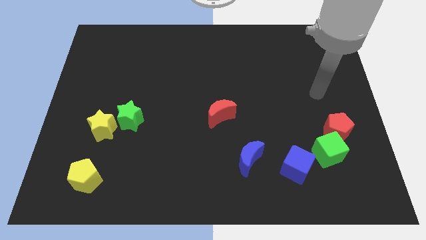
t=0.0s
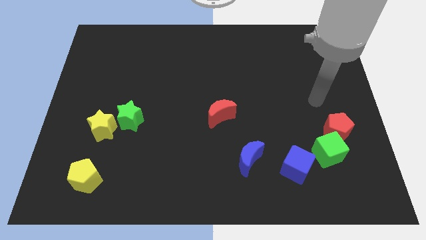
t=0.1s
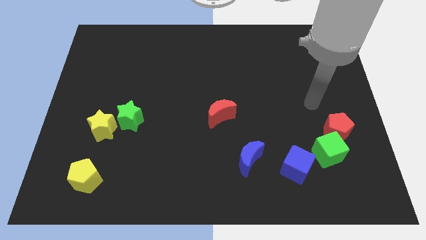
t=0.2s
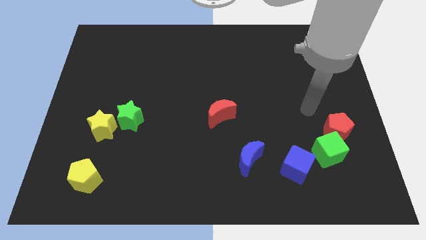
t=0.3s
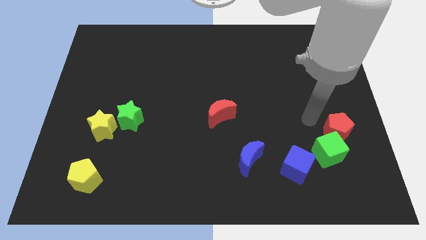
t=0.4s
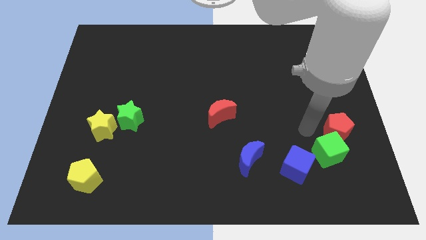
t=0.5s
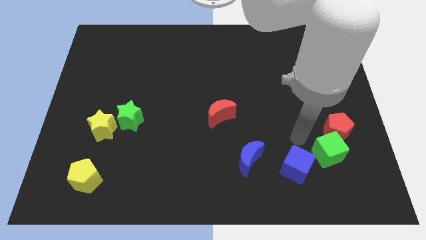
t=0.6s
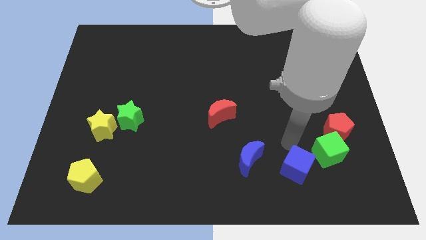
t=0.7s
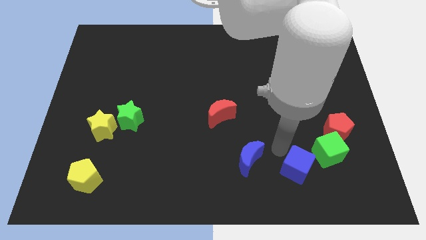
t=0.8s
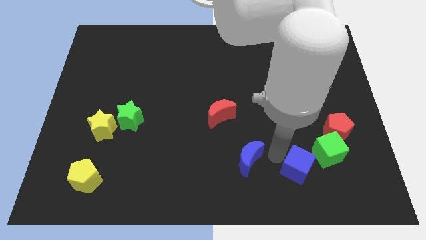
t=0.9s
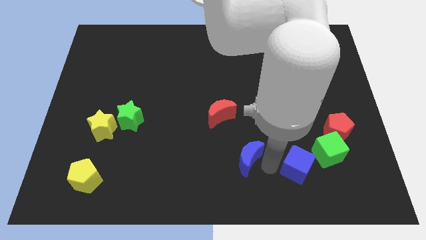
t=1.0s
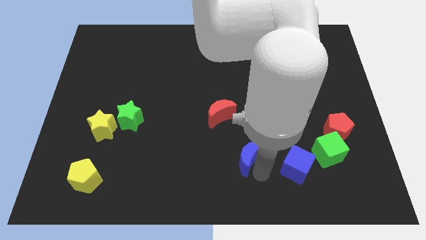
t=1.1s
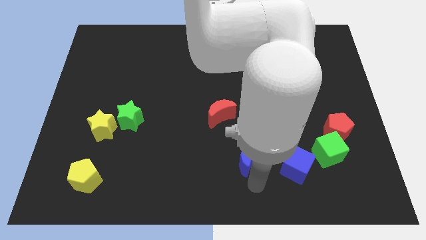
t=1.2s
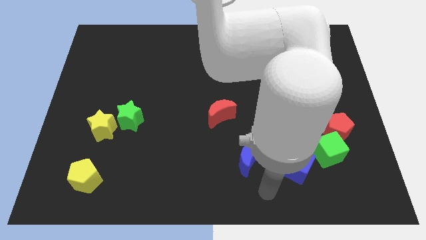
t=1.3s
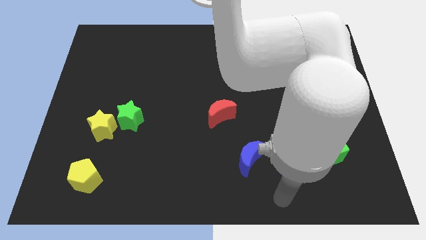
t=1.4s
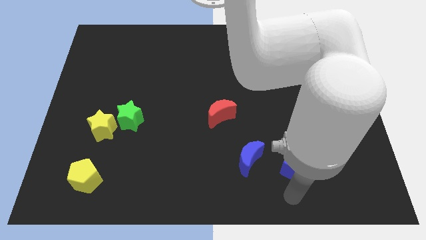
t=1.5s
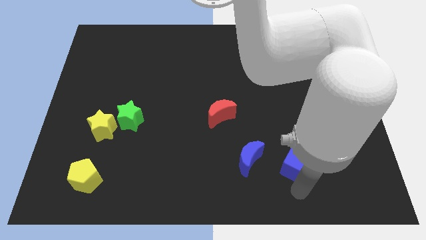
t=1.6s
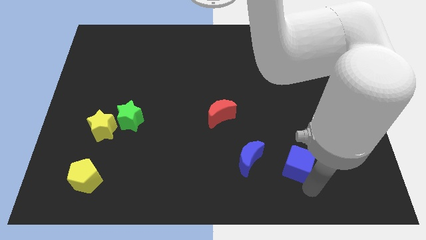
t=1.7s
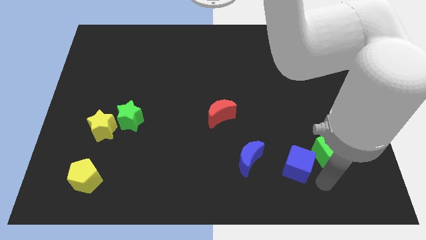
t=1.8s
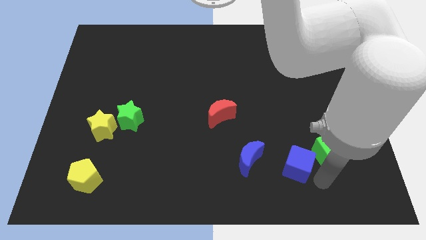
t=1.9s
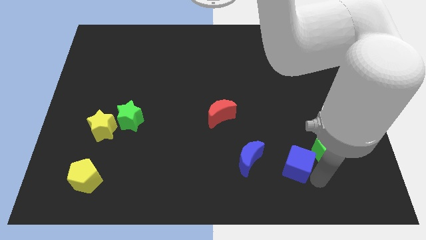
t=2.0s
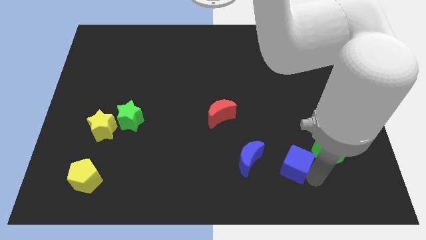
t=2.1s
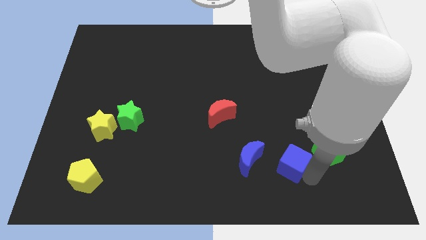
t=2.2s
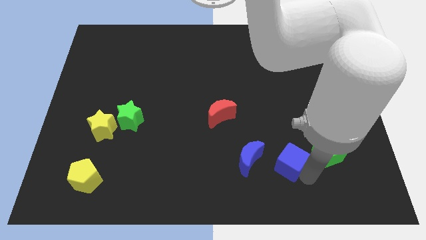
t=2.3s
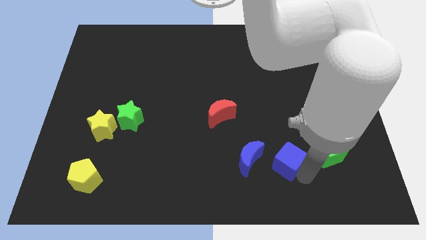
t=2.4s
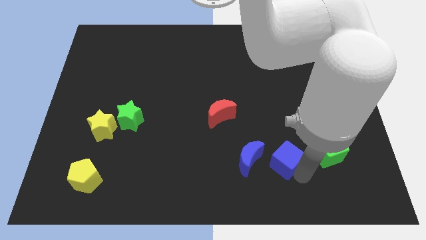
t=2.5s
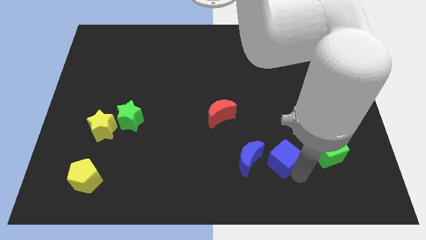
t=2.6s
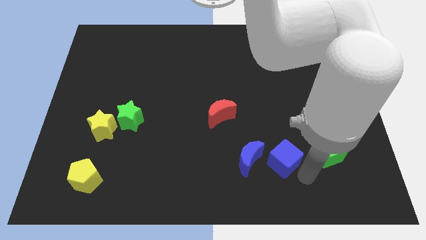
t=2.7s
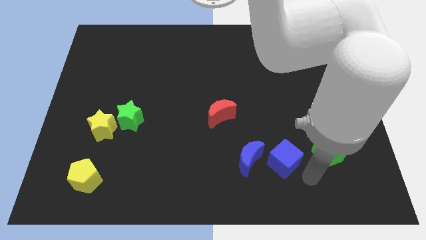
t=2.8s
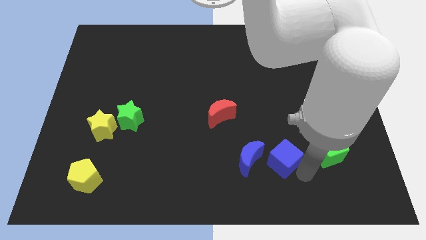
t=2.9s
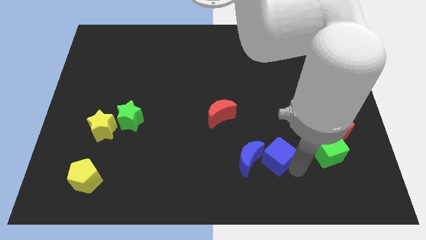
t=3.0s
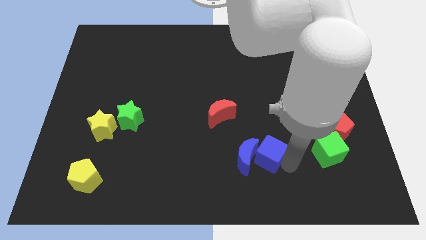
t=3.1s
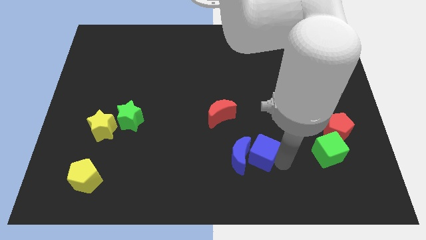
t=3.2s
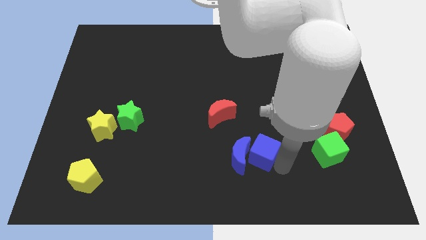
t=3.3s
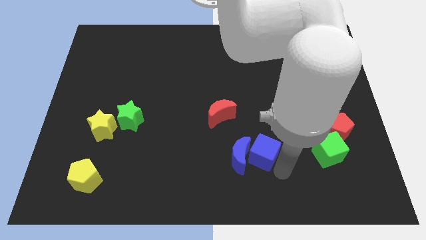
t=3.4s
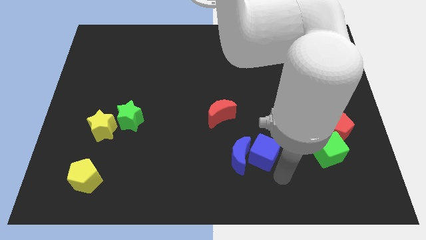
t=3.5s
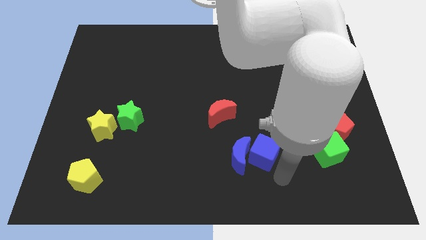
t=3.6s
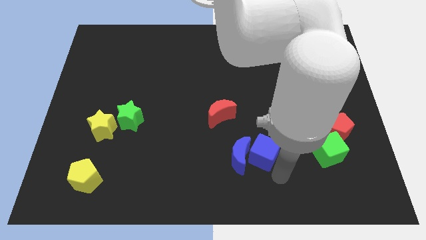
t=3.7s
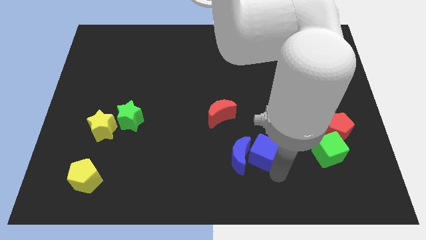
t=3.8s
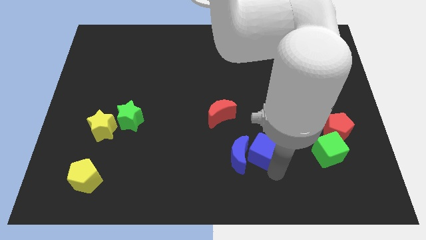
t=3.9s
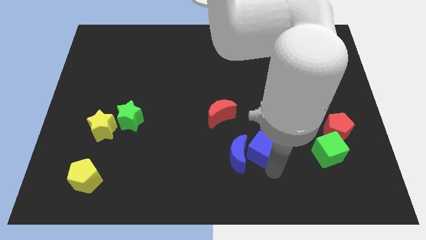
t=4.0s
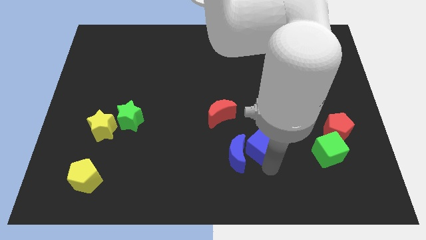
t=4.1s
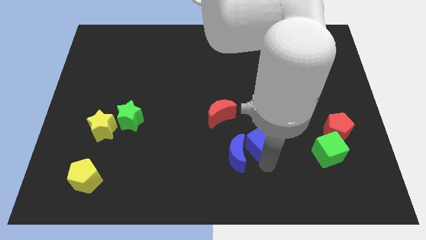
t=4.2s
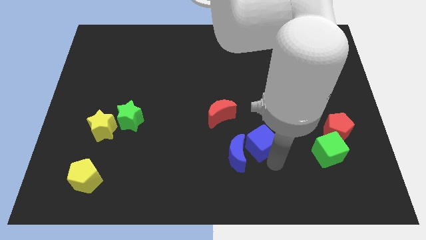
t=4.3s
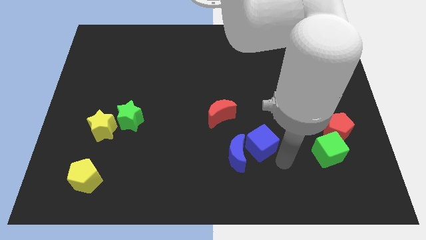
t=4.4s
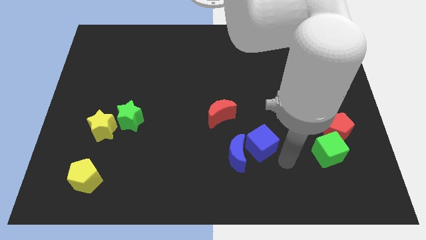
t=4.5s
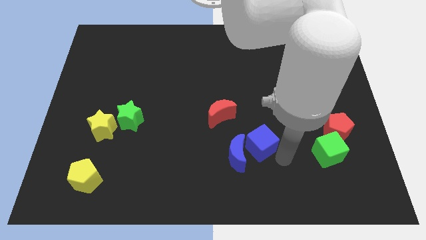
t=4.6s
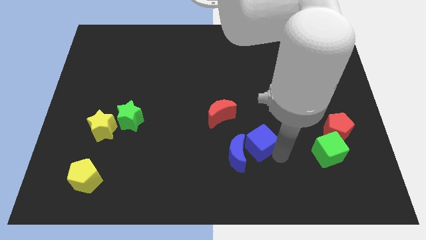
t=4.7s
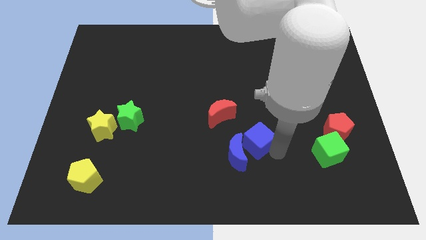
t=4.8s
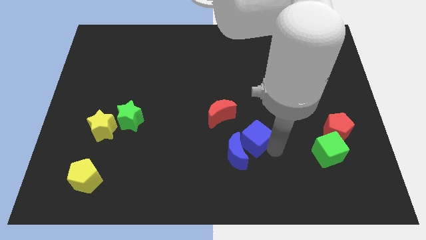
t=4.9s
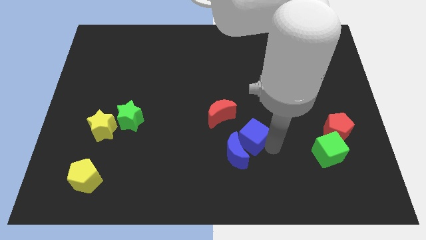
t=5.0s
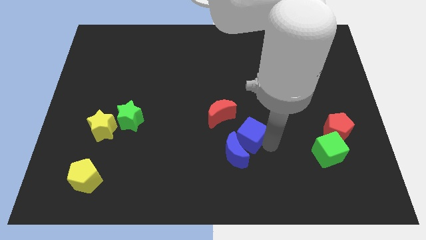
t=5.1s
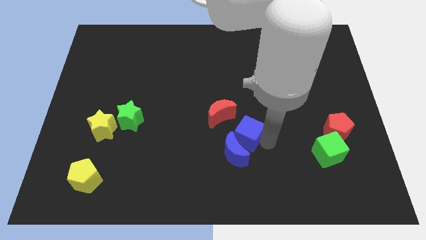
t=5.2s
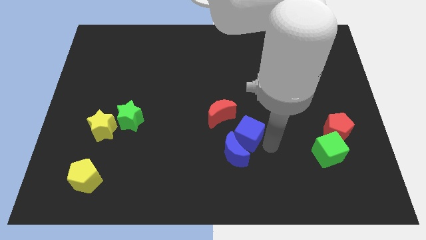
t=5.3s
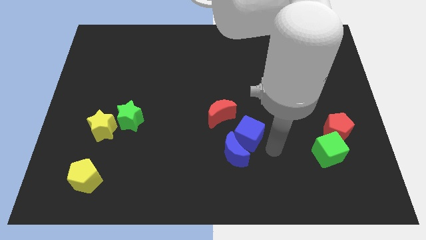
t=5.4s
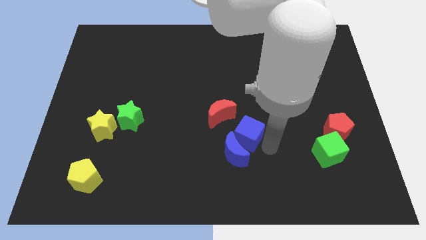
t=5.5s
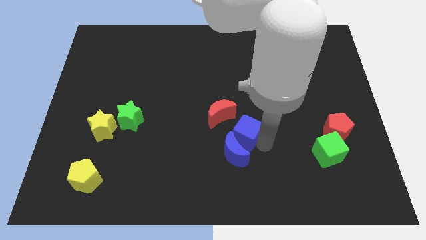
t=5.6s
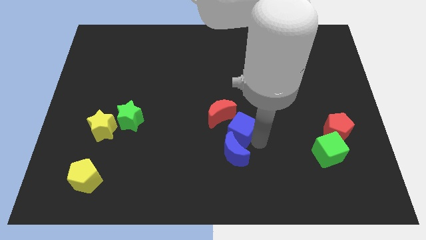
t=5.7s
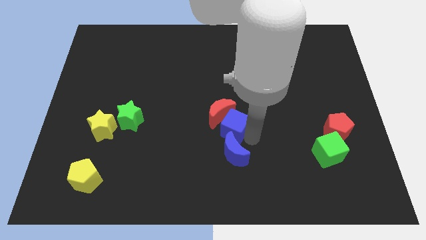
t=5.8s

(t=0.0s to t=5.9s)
put the blue cube to the red moon

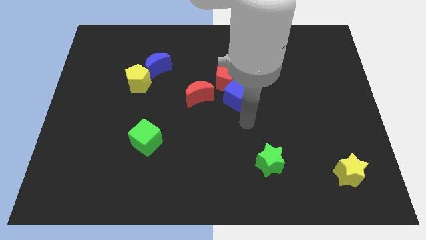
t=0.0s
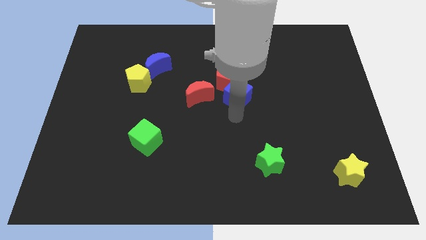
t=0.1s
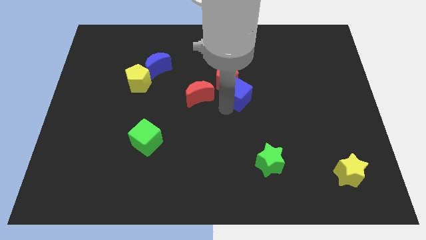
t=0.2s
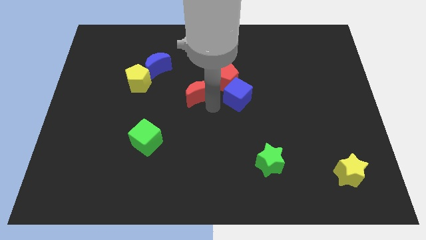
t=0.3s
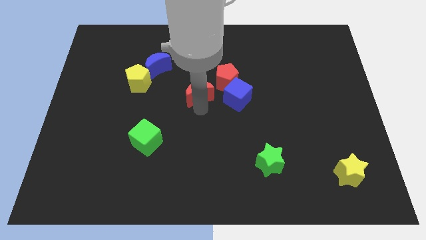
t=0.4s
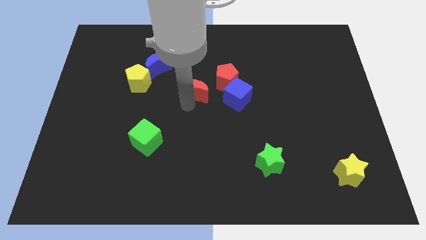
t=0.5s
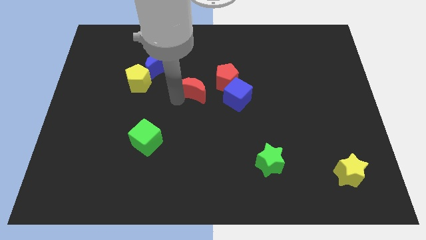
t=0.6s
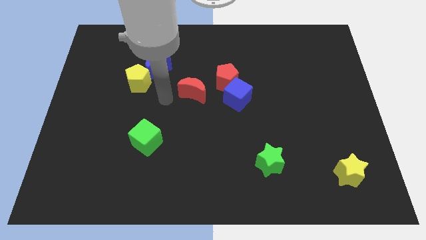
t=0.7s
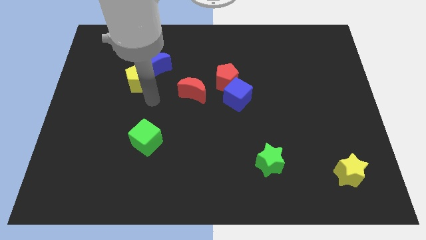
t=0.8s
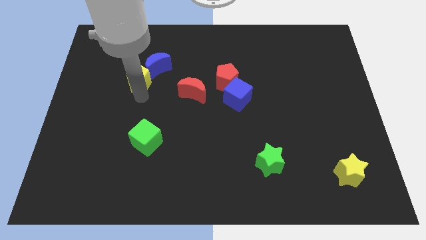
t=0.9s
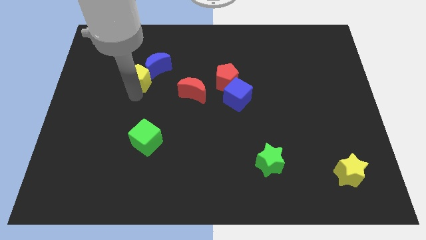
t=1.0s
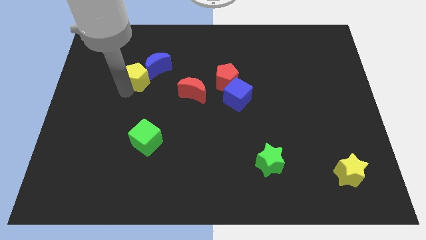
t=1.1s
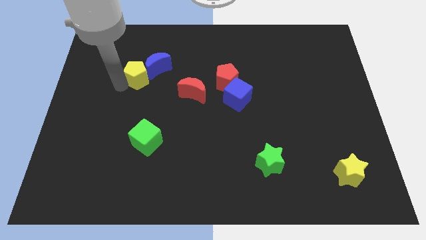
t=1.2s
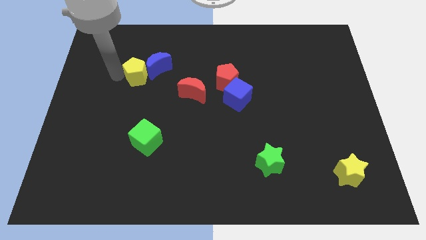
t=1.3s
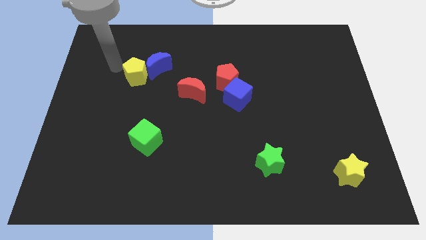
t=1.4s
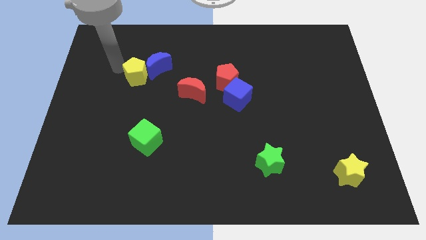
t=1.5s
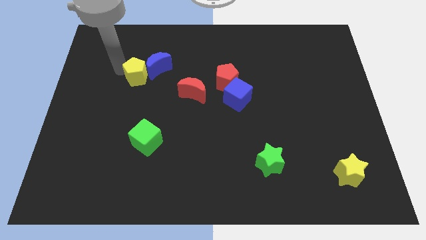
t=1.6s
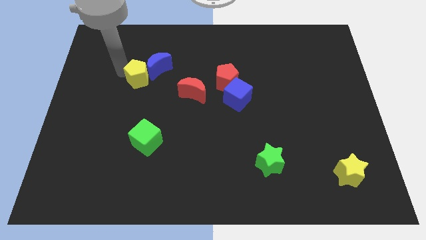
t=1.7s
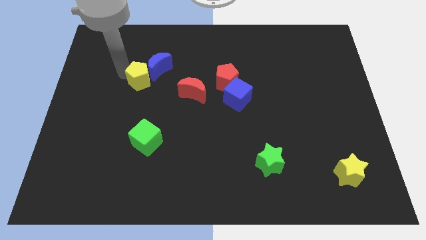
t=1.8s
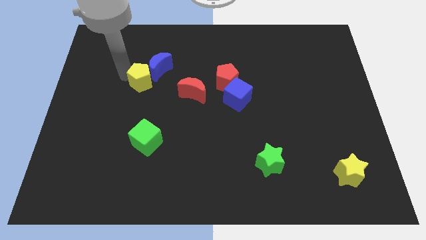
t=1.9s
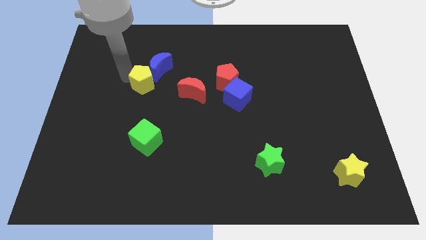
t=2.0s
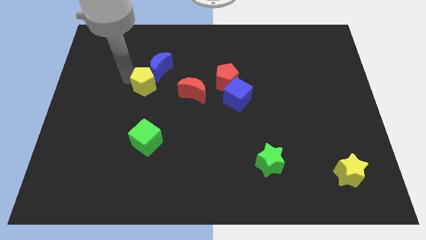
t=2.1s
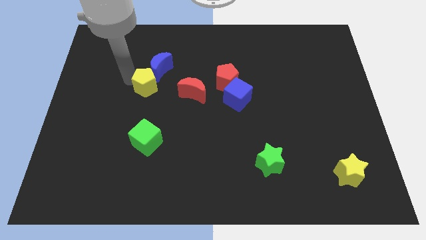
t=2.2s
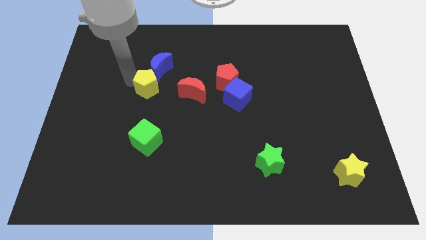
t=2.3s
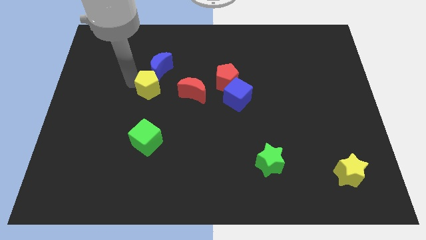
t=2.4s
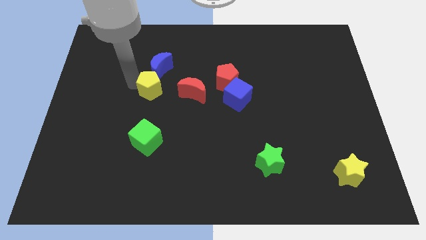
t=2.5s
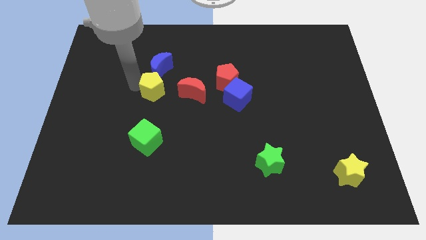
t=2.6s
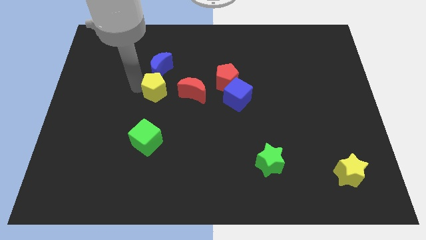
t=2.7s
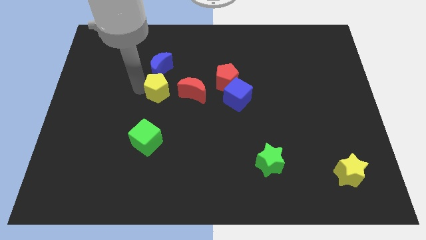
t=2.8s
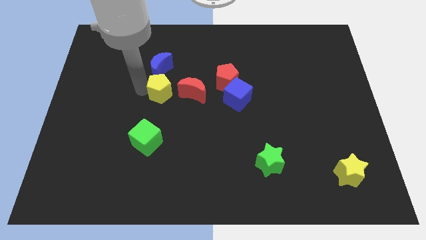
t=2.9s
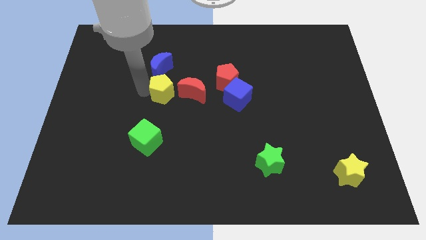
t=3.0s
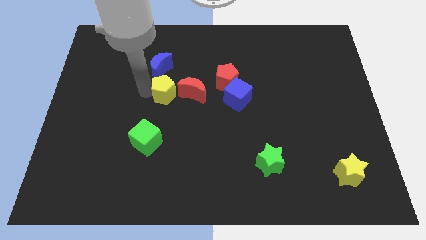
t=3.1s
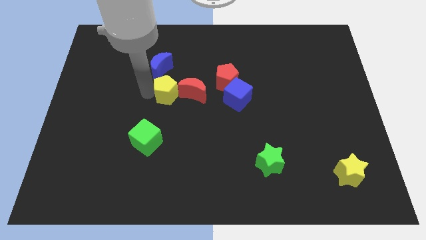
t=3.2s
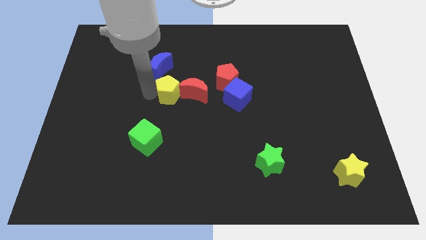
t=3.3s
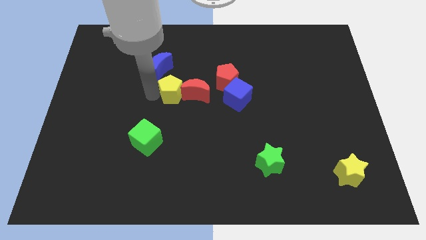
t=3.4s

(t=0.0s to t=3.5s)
put the yellow pentagon close to the red moon
